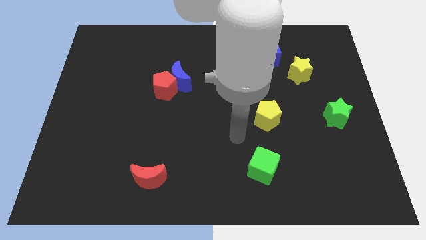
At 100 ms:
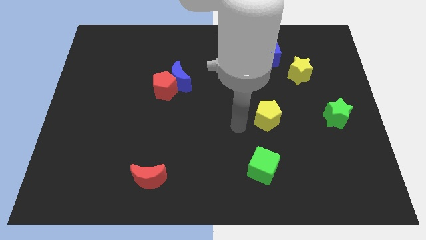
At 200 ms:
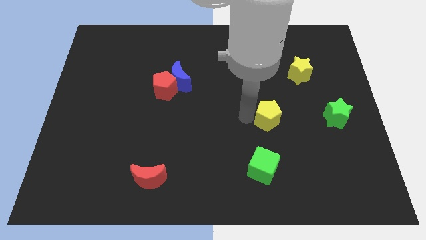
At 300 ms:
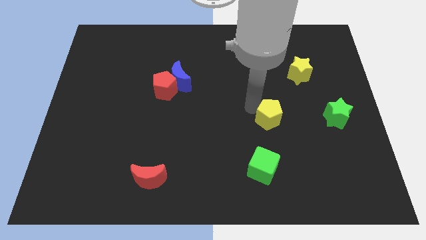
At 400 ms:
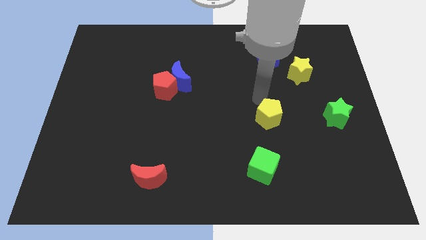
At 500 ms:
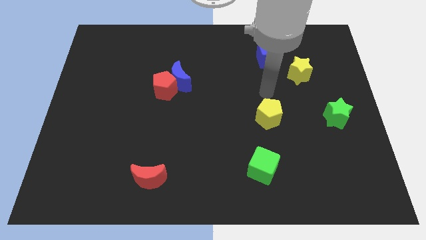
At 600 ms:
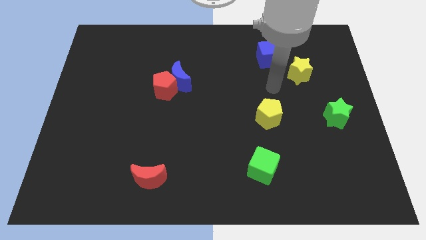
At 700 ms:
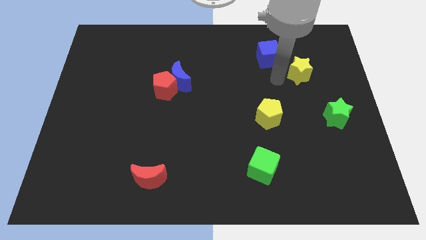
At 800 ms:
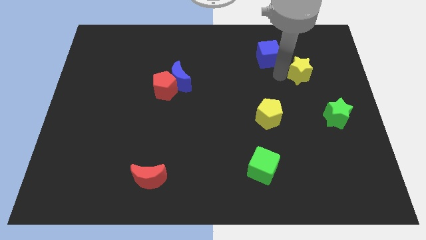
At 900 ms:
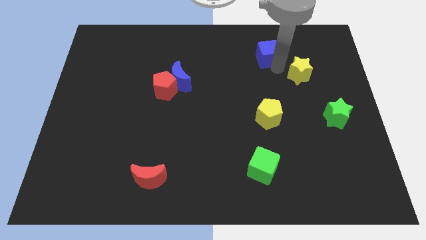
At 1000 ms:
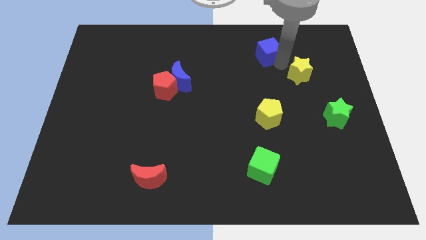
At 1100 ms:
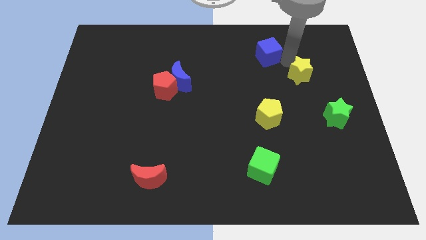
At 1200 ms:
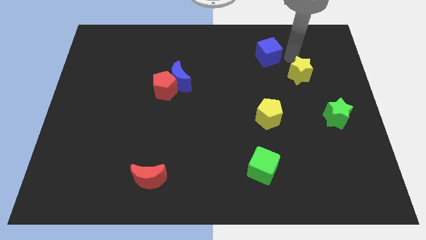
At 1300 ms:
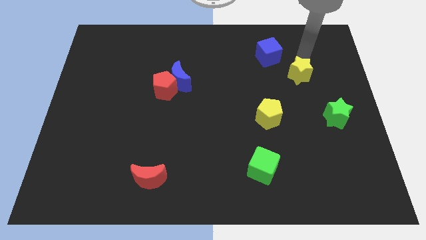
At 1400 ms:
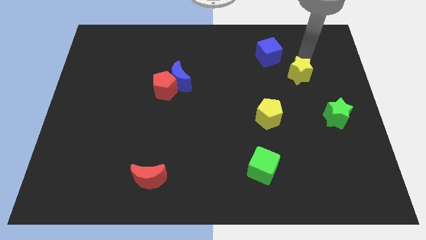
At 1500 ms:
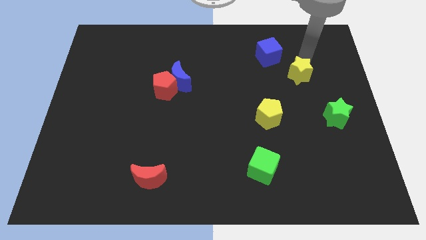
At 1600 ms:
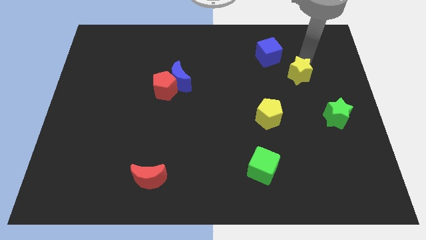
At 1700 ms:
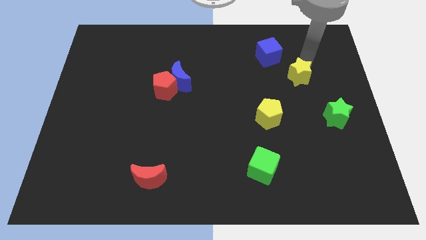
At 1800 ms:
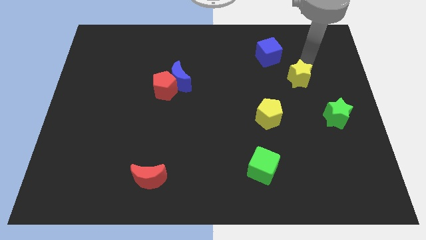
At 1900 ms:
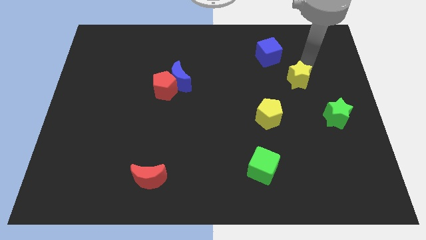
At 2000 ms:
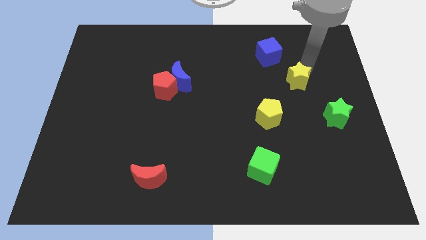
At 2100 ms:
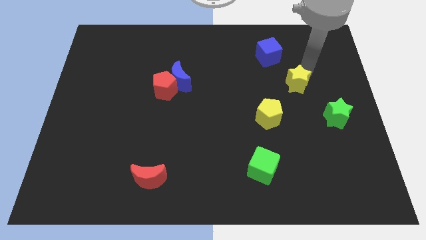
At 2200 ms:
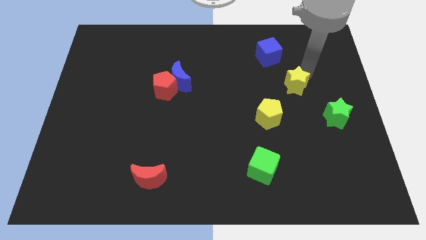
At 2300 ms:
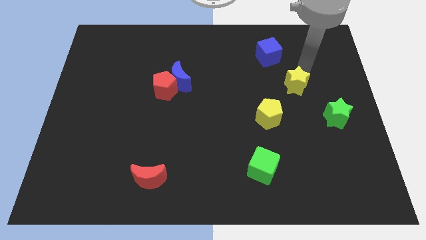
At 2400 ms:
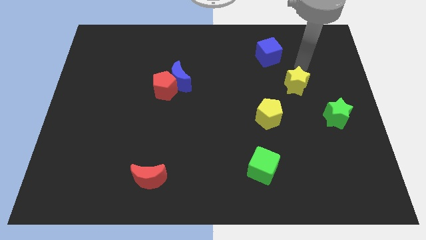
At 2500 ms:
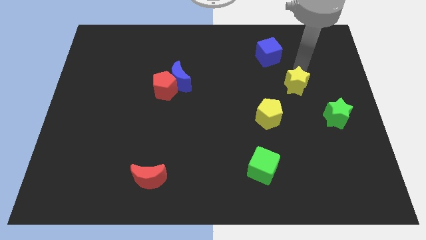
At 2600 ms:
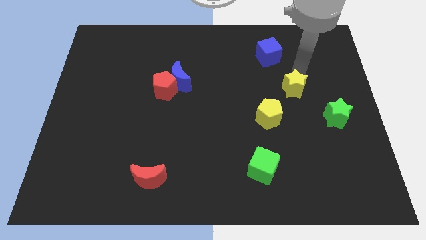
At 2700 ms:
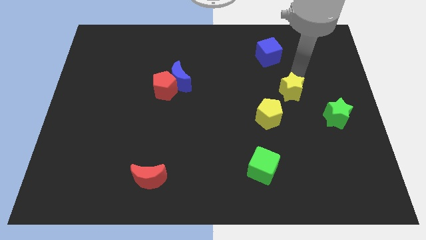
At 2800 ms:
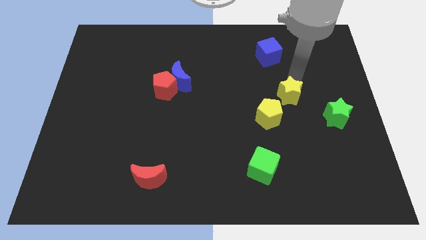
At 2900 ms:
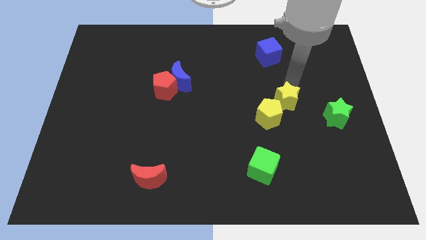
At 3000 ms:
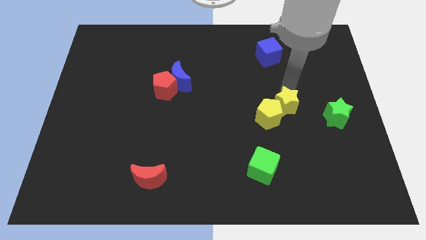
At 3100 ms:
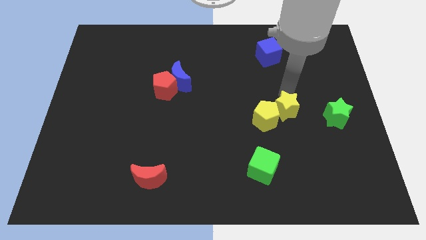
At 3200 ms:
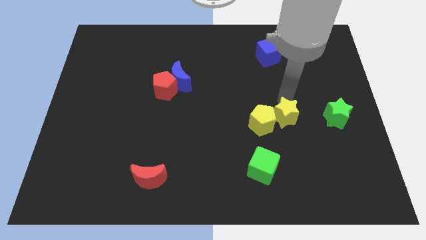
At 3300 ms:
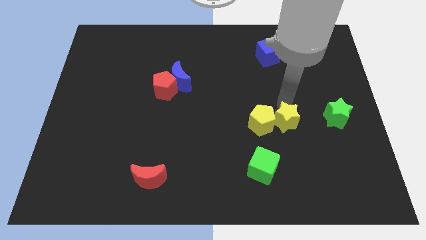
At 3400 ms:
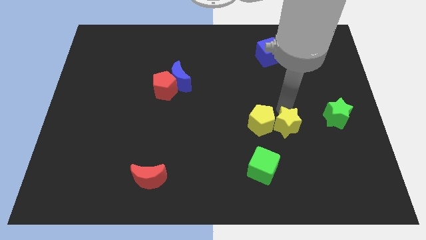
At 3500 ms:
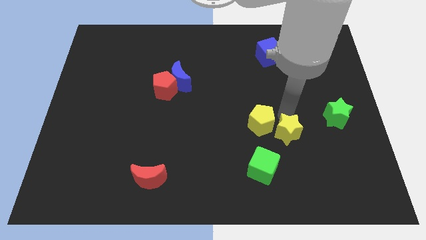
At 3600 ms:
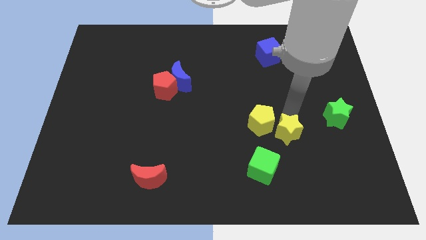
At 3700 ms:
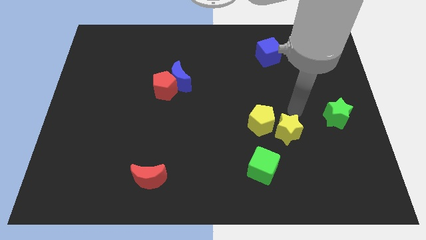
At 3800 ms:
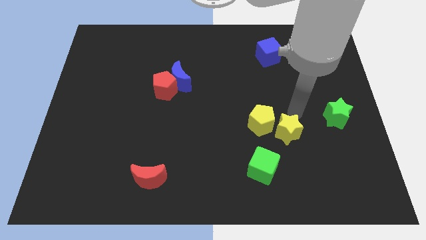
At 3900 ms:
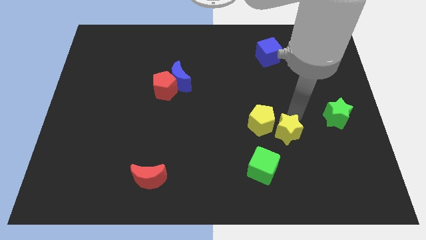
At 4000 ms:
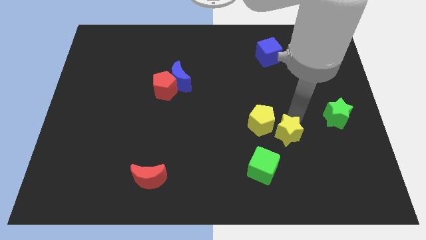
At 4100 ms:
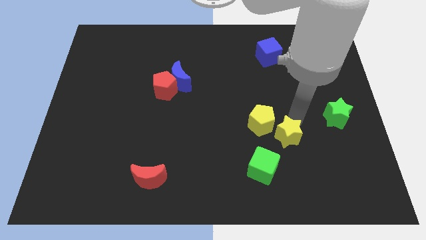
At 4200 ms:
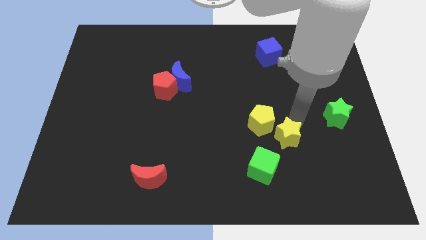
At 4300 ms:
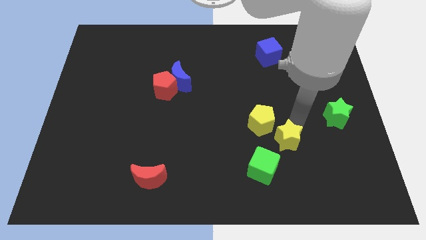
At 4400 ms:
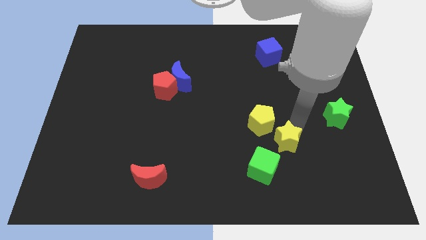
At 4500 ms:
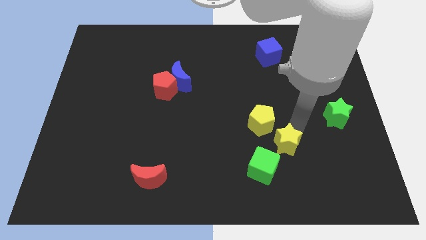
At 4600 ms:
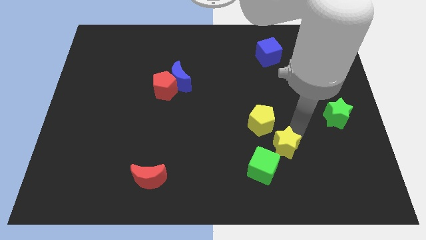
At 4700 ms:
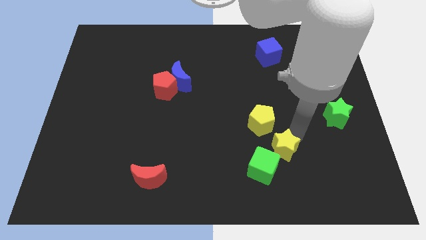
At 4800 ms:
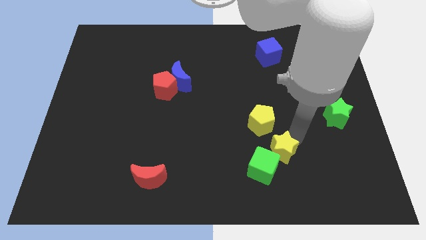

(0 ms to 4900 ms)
push the yellow star towards the green cube

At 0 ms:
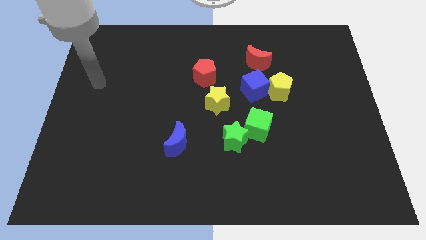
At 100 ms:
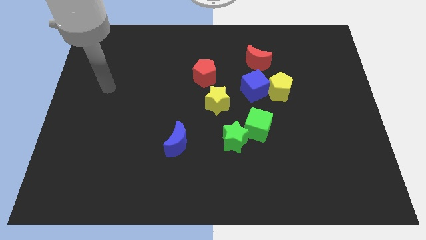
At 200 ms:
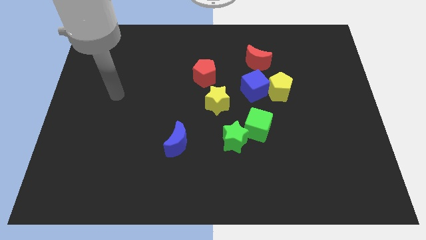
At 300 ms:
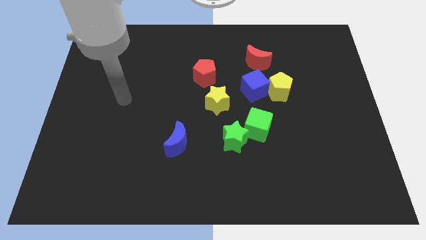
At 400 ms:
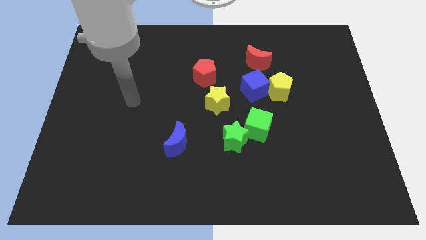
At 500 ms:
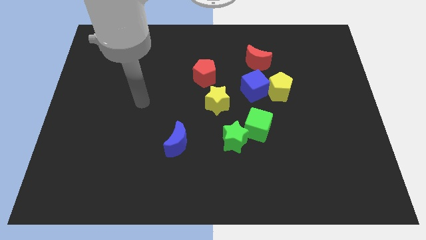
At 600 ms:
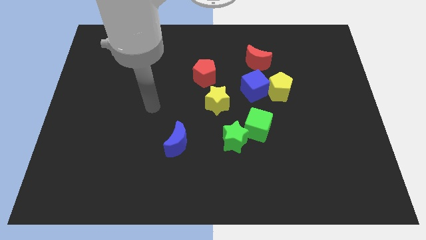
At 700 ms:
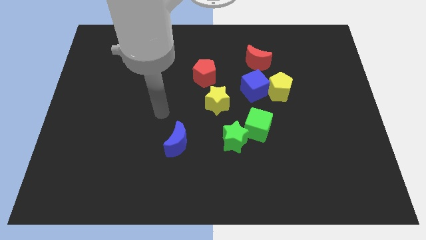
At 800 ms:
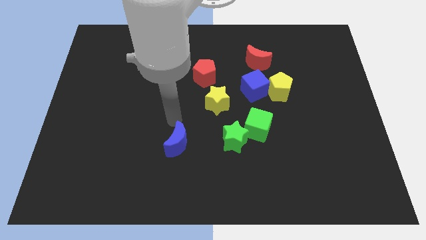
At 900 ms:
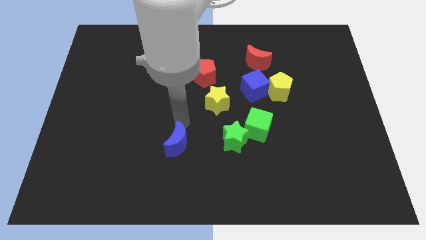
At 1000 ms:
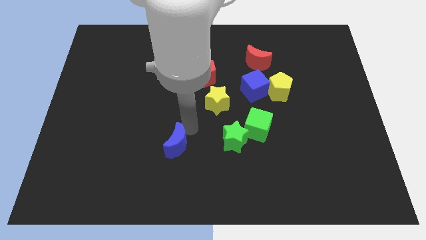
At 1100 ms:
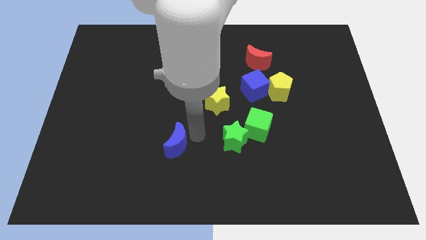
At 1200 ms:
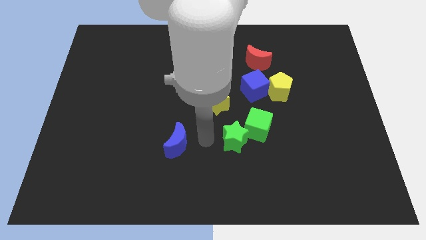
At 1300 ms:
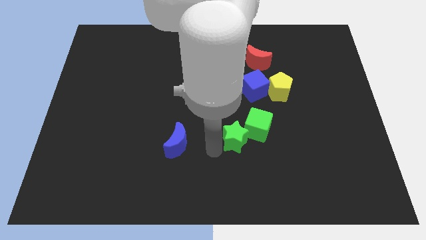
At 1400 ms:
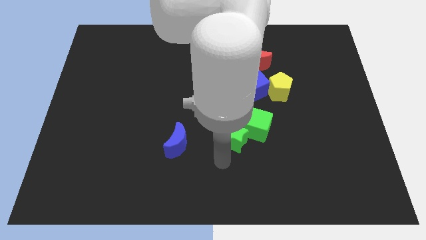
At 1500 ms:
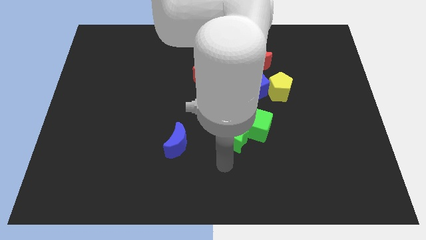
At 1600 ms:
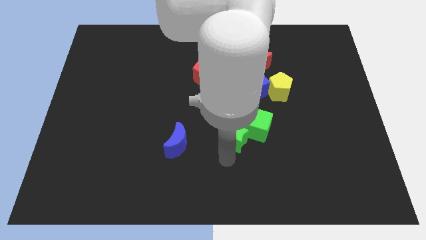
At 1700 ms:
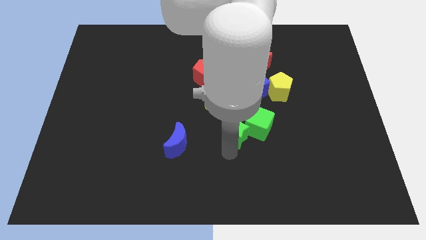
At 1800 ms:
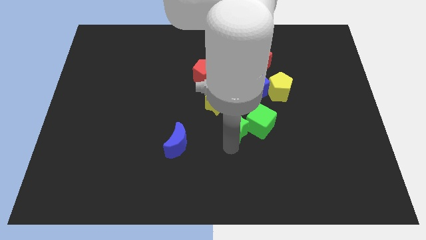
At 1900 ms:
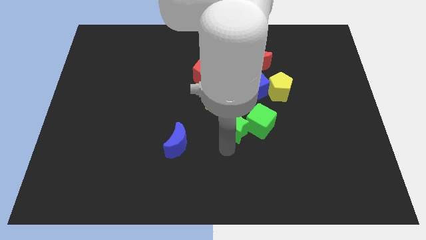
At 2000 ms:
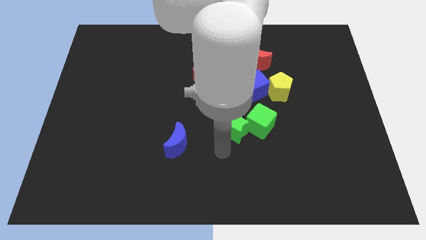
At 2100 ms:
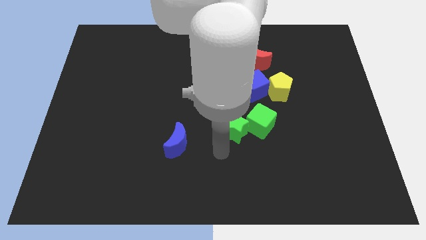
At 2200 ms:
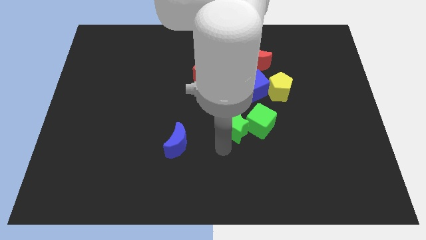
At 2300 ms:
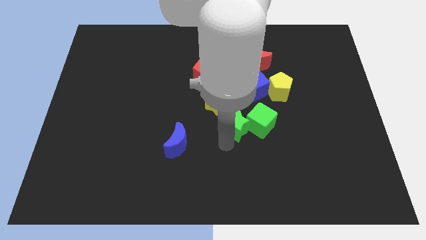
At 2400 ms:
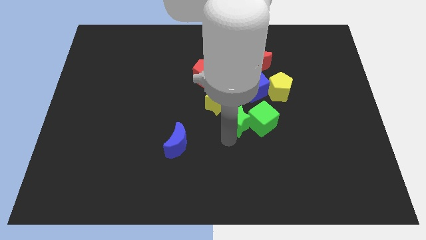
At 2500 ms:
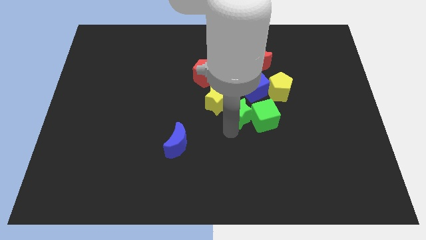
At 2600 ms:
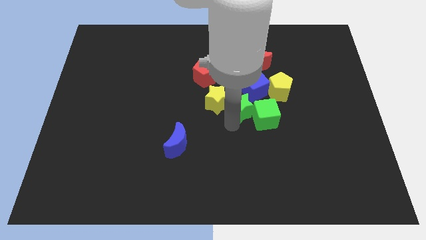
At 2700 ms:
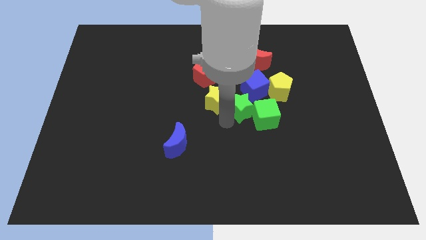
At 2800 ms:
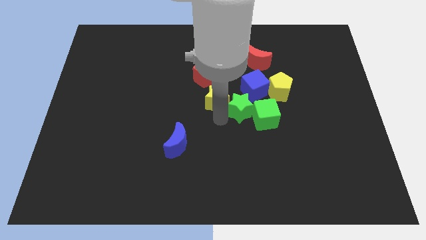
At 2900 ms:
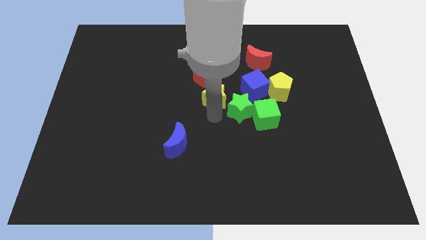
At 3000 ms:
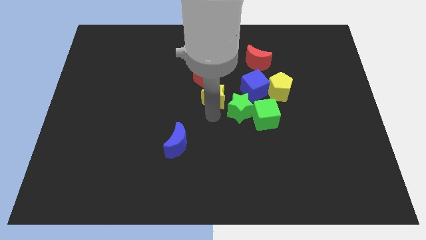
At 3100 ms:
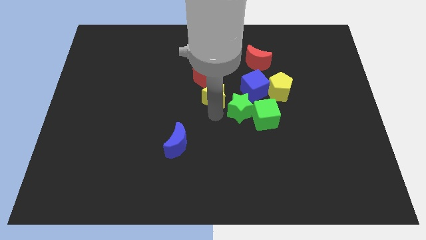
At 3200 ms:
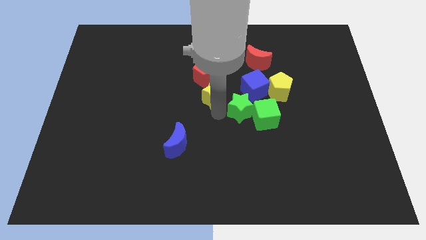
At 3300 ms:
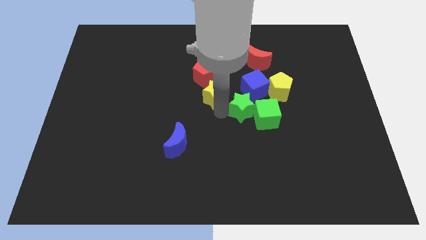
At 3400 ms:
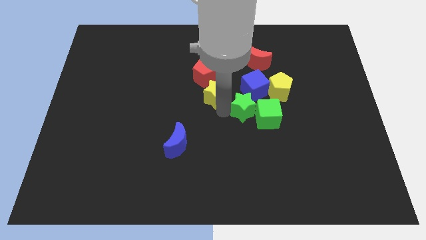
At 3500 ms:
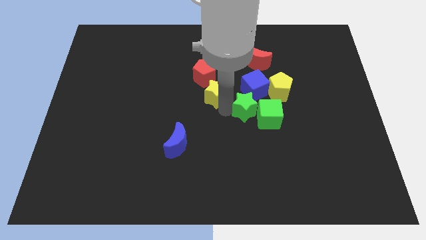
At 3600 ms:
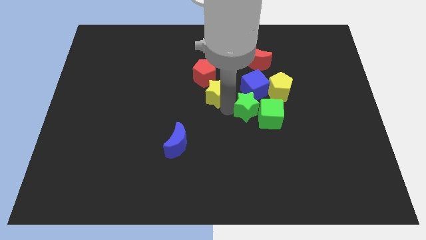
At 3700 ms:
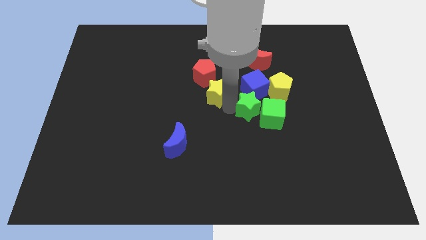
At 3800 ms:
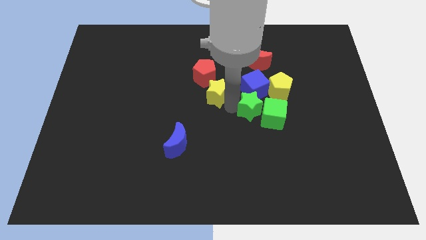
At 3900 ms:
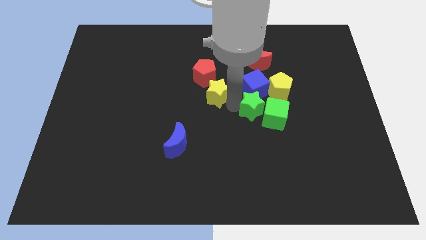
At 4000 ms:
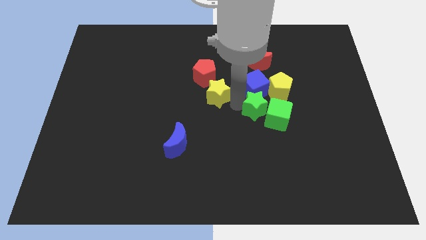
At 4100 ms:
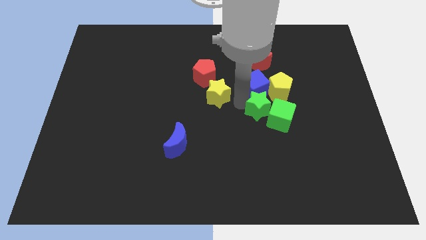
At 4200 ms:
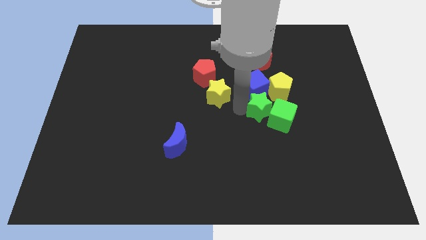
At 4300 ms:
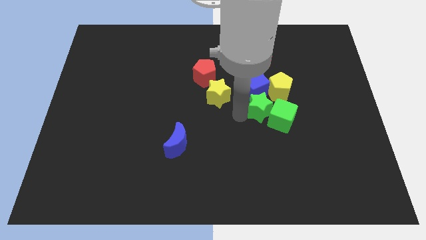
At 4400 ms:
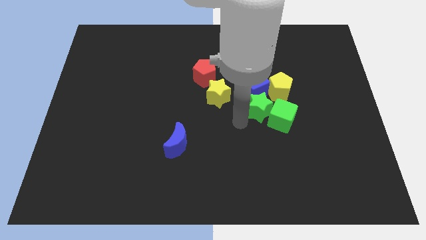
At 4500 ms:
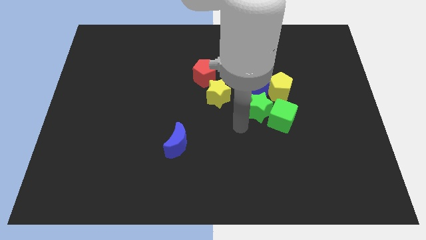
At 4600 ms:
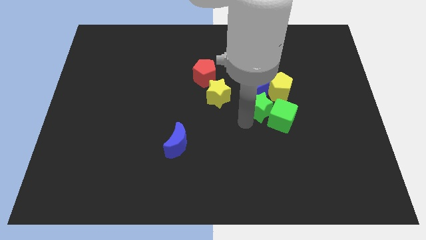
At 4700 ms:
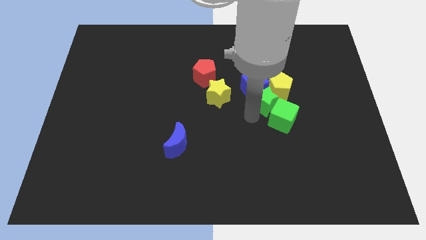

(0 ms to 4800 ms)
push the green star towards the yellow pentagon
